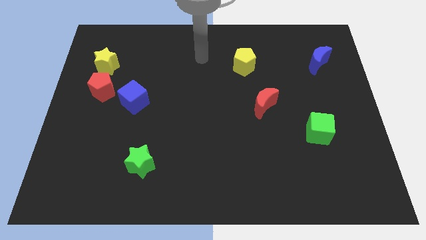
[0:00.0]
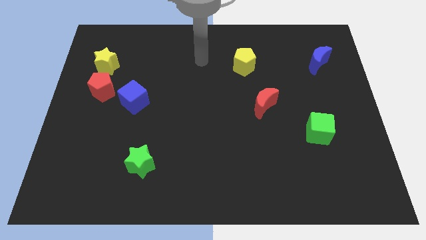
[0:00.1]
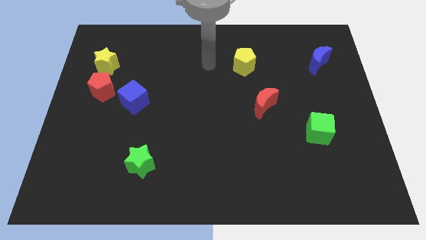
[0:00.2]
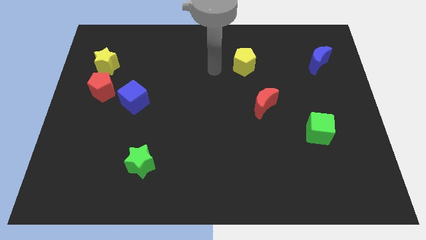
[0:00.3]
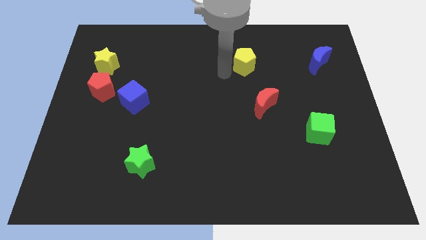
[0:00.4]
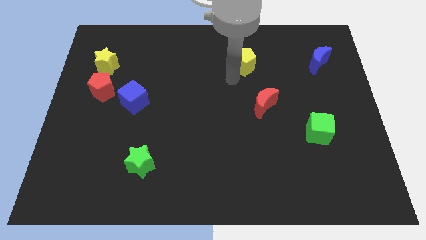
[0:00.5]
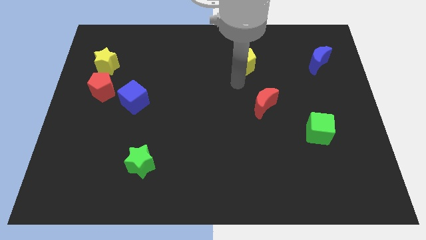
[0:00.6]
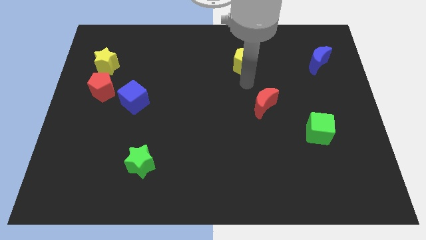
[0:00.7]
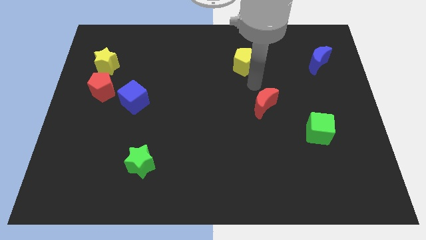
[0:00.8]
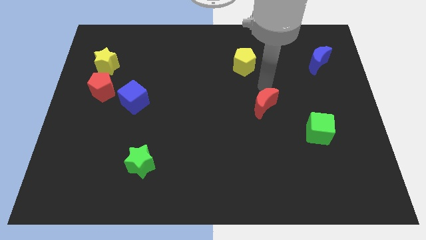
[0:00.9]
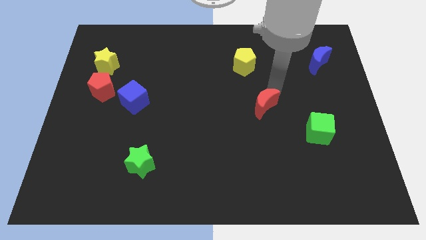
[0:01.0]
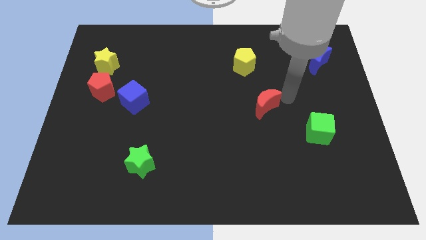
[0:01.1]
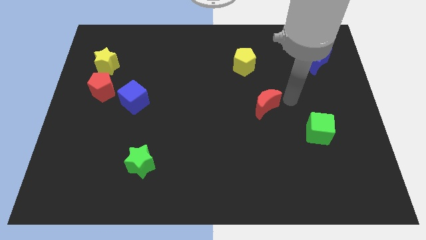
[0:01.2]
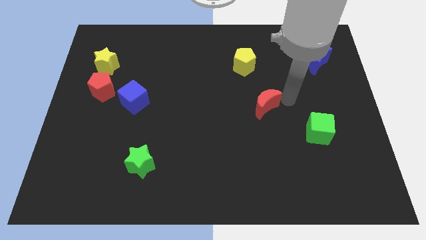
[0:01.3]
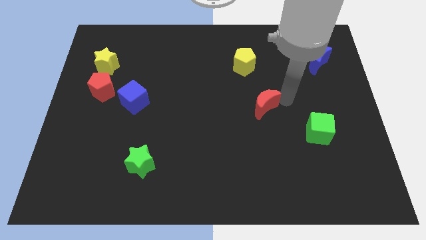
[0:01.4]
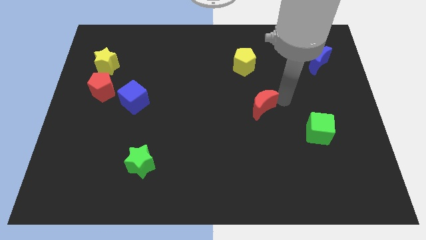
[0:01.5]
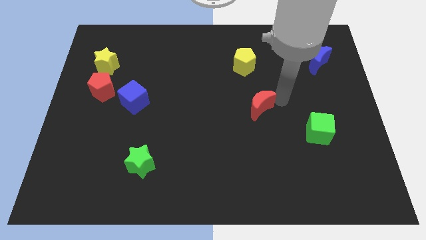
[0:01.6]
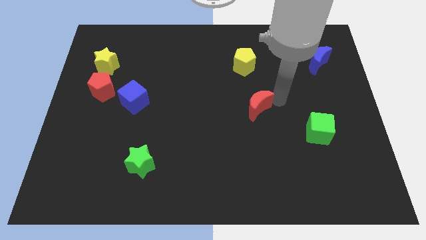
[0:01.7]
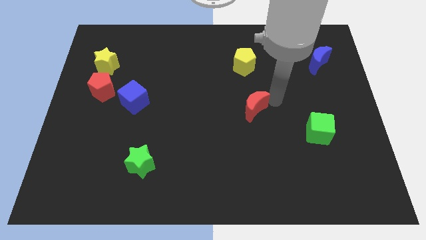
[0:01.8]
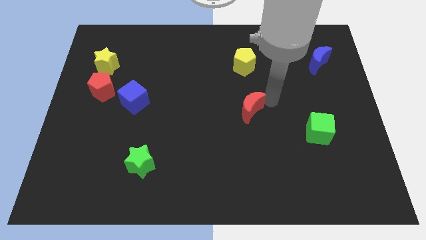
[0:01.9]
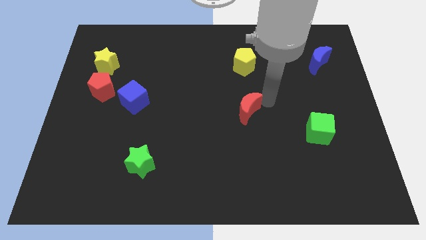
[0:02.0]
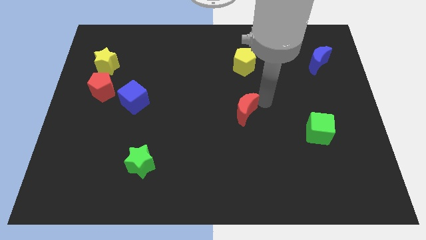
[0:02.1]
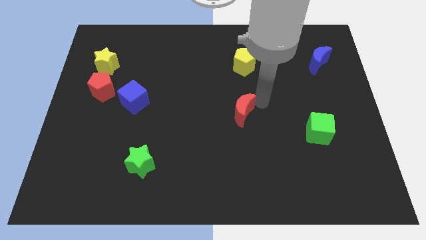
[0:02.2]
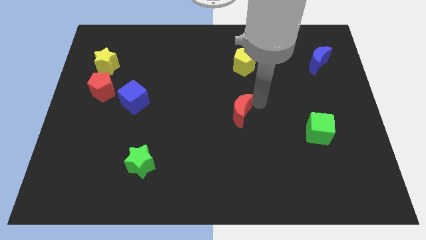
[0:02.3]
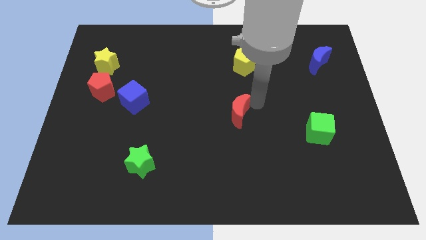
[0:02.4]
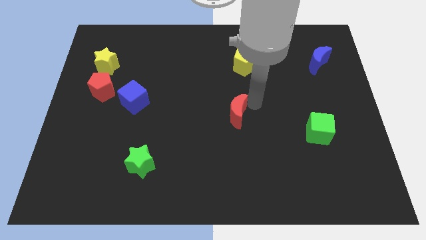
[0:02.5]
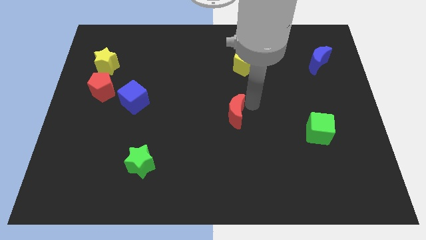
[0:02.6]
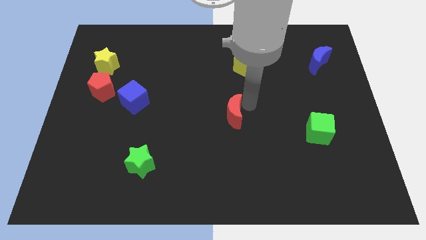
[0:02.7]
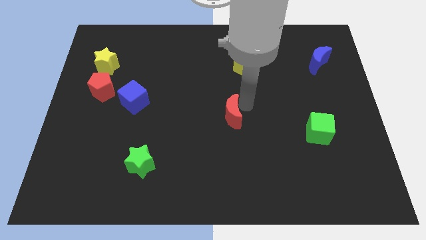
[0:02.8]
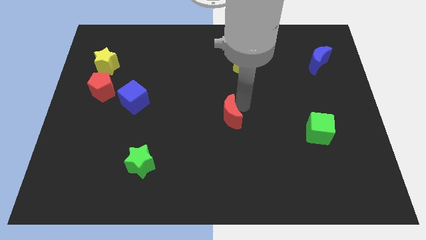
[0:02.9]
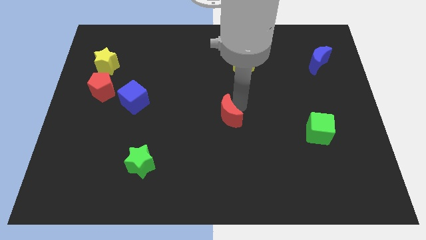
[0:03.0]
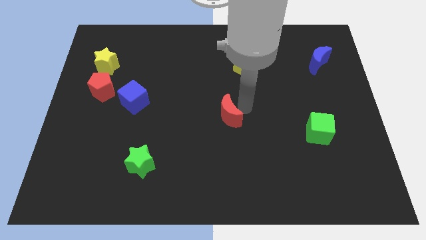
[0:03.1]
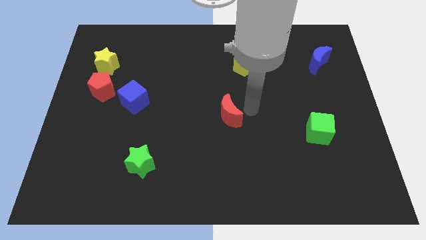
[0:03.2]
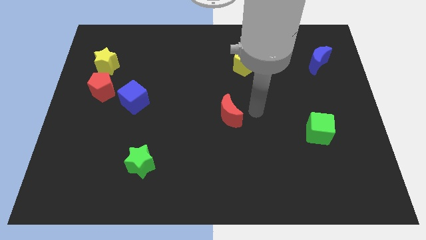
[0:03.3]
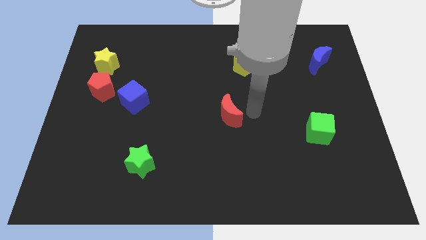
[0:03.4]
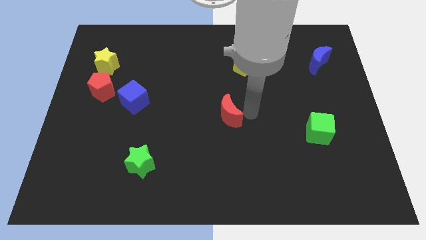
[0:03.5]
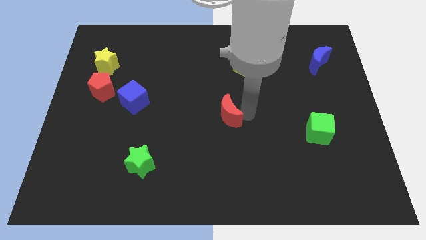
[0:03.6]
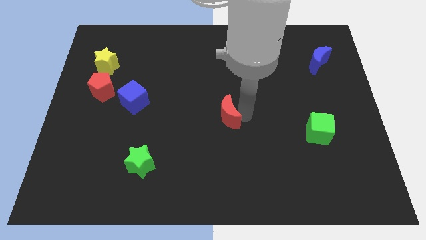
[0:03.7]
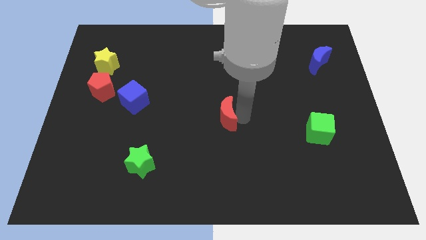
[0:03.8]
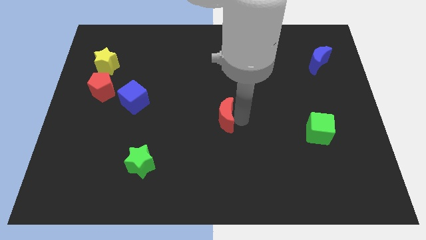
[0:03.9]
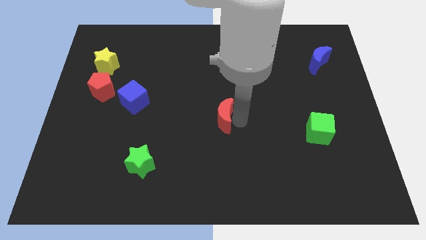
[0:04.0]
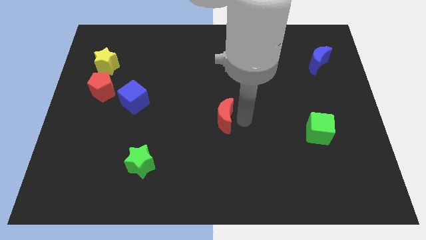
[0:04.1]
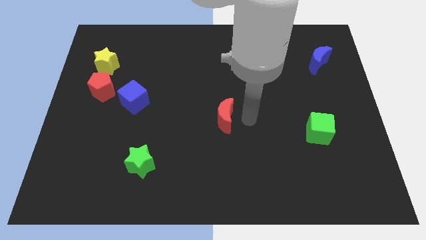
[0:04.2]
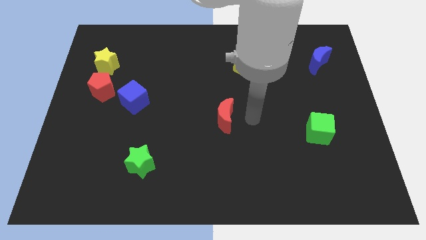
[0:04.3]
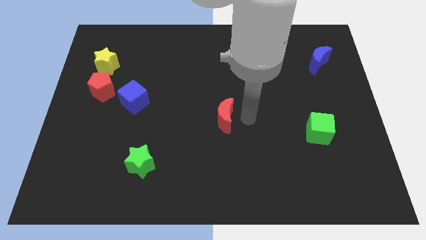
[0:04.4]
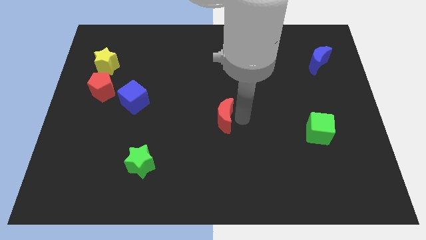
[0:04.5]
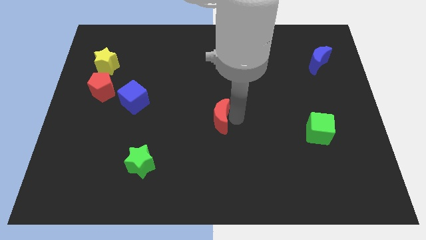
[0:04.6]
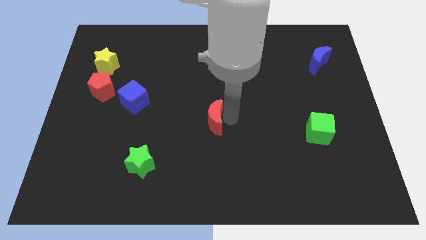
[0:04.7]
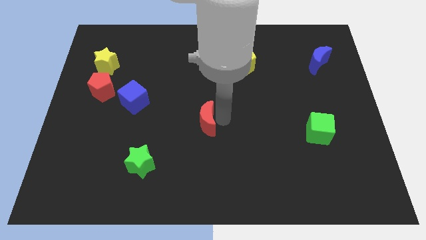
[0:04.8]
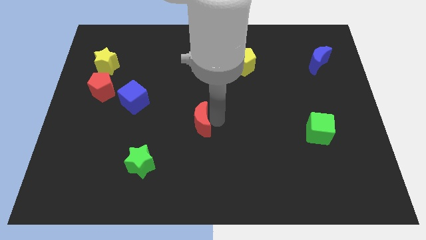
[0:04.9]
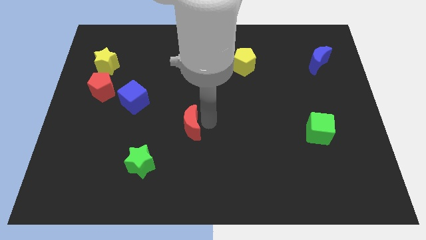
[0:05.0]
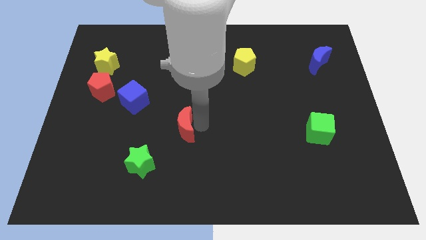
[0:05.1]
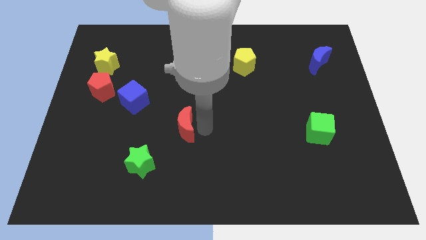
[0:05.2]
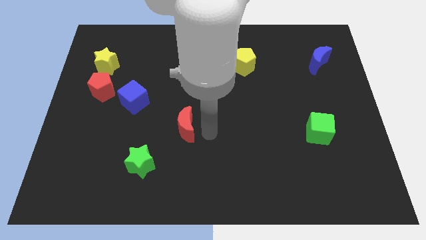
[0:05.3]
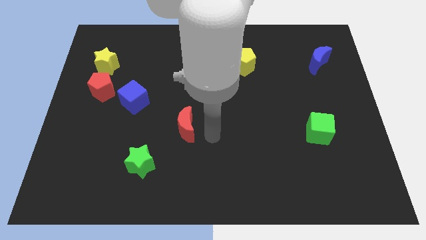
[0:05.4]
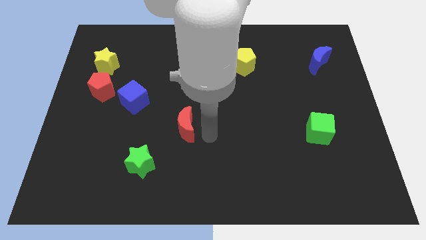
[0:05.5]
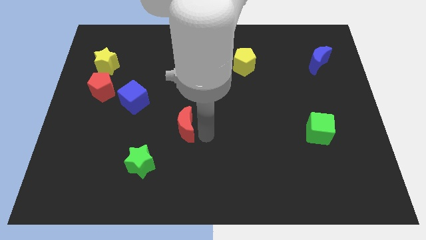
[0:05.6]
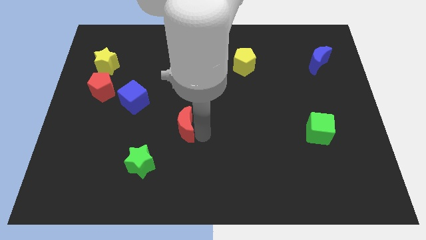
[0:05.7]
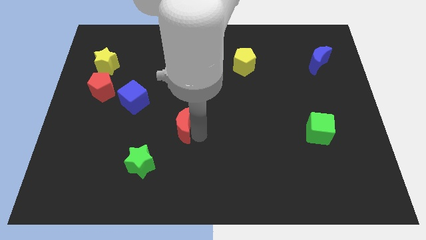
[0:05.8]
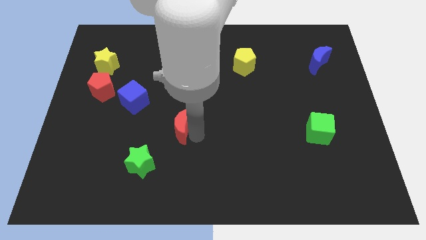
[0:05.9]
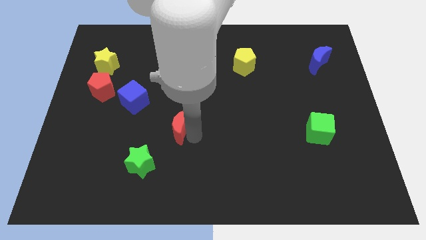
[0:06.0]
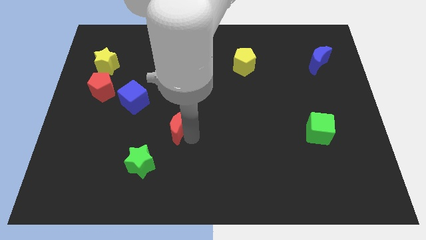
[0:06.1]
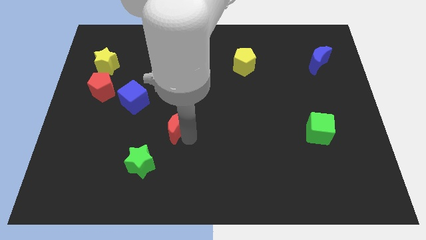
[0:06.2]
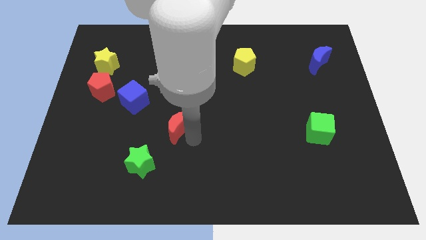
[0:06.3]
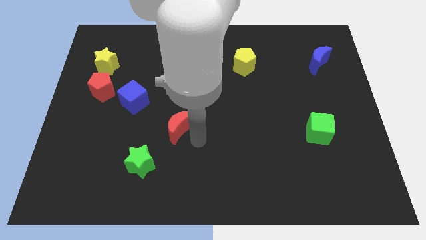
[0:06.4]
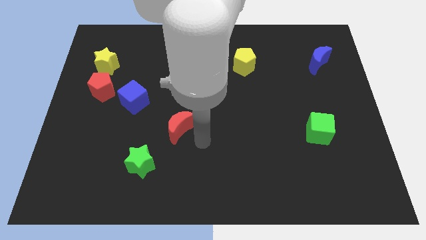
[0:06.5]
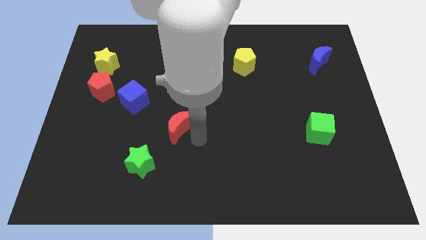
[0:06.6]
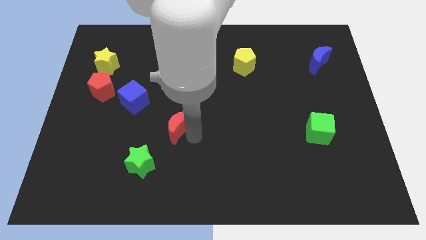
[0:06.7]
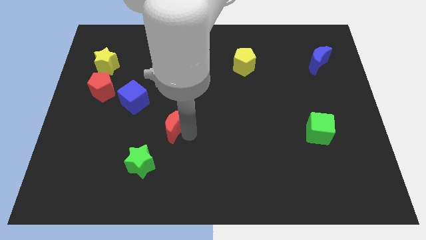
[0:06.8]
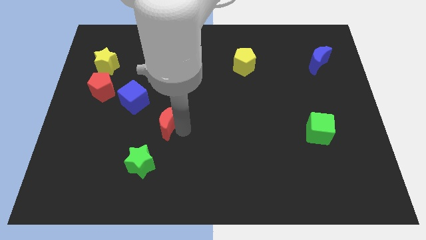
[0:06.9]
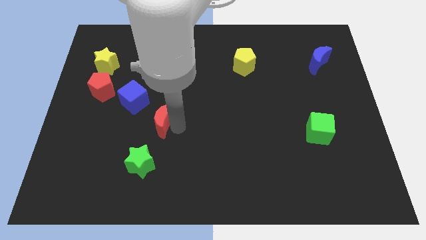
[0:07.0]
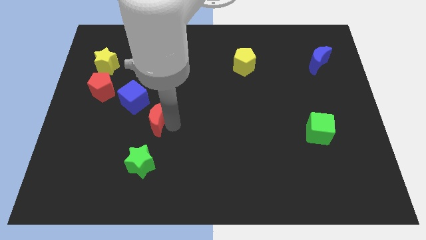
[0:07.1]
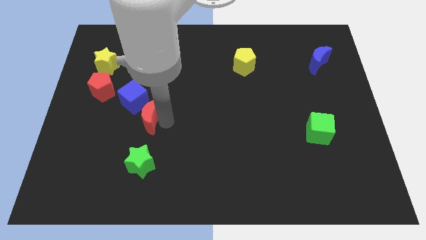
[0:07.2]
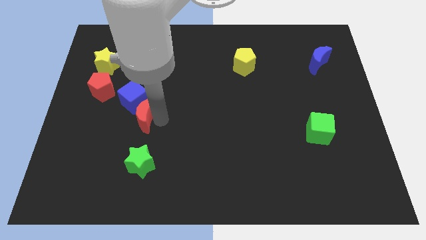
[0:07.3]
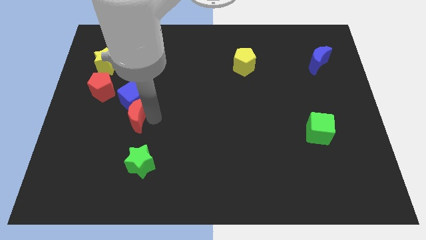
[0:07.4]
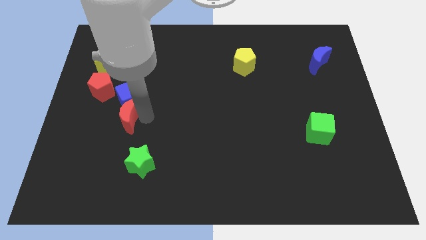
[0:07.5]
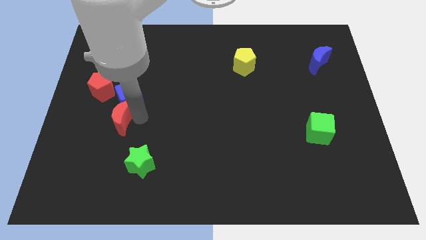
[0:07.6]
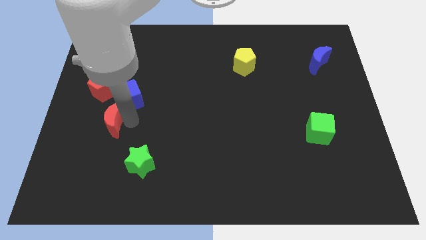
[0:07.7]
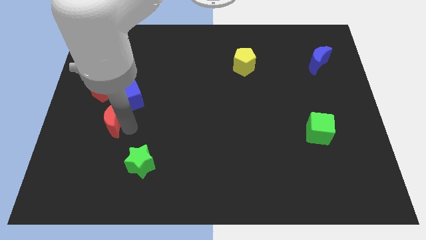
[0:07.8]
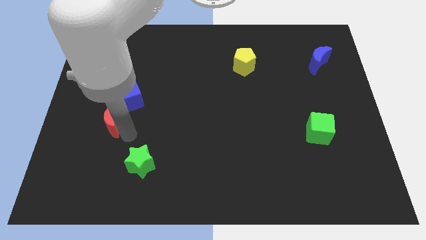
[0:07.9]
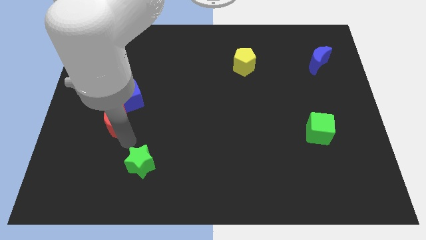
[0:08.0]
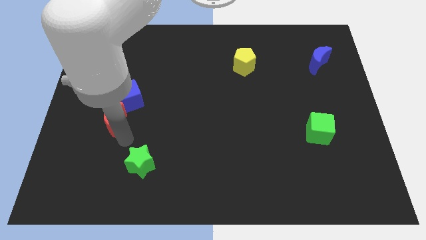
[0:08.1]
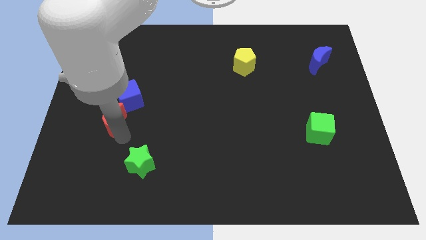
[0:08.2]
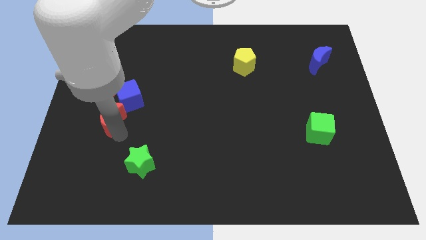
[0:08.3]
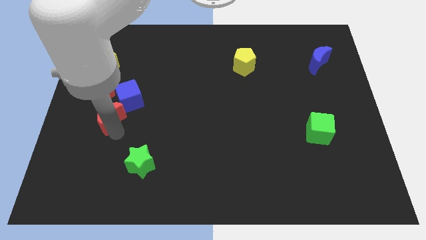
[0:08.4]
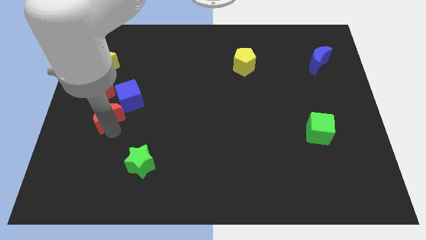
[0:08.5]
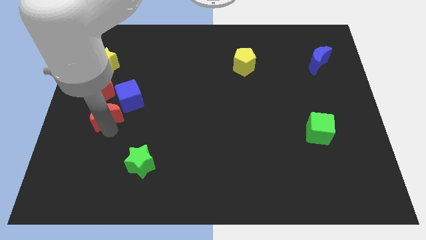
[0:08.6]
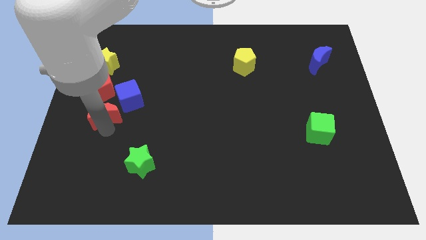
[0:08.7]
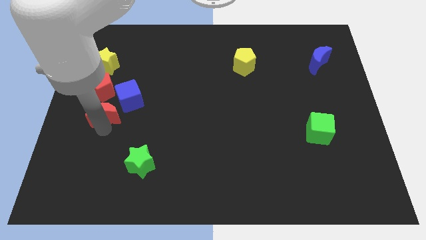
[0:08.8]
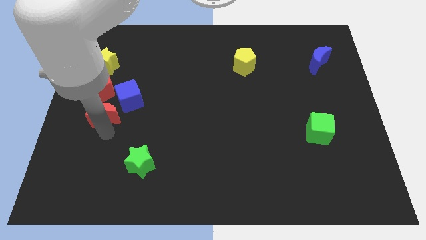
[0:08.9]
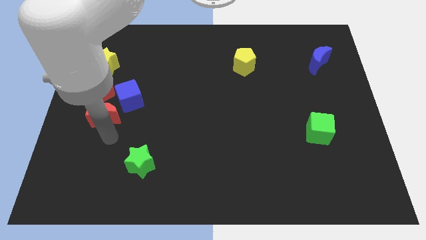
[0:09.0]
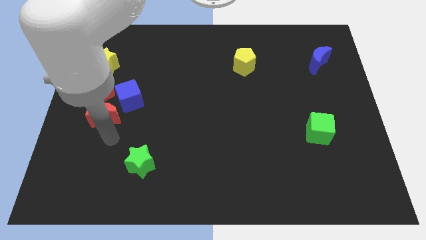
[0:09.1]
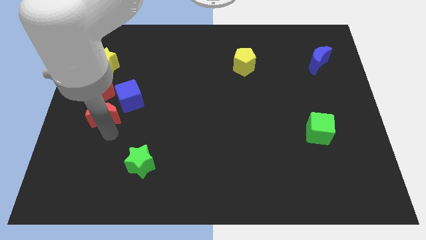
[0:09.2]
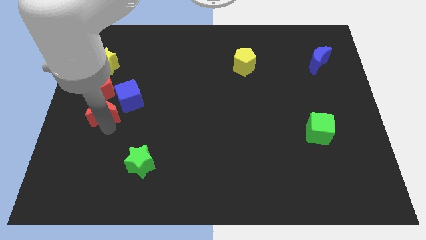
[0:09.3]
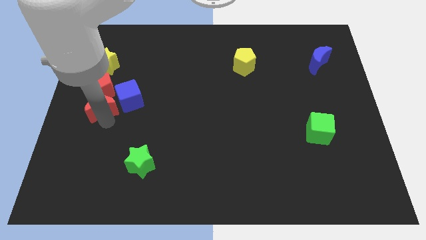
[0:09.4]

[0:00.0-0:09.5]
slide the red moon to the bottom of the yellow star
